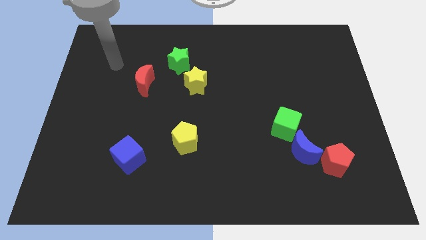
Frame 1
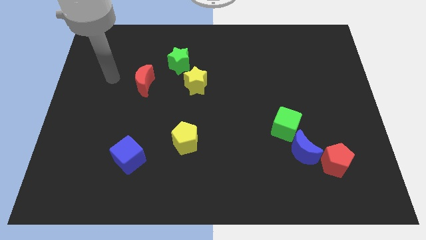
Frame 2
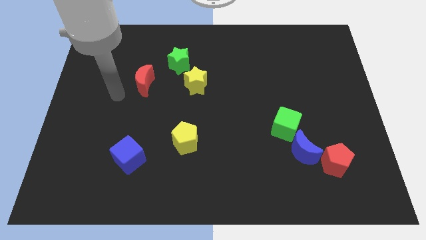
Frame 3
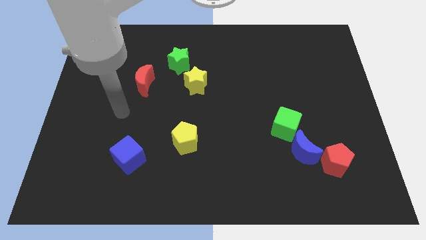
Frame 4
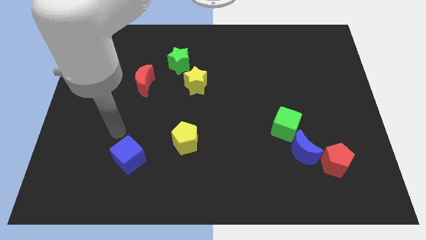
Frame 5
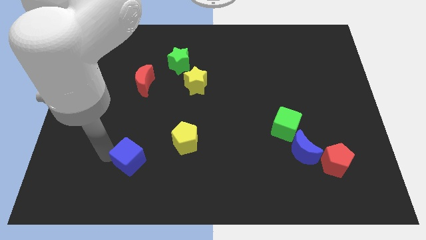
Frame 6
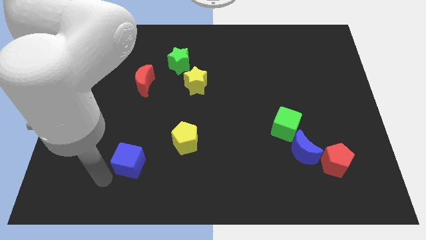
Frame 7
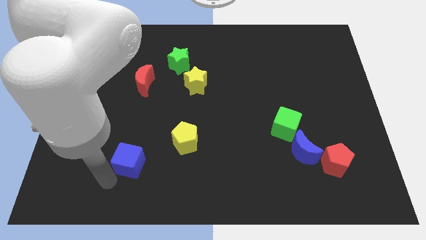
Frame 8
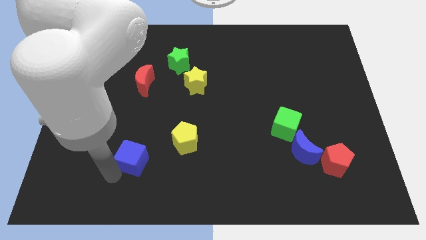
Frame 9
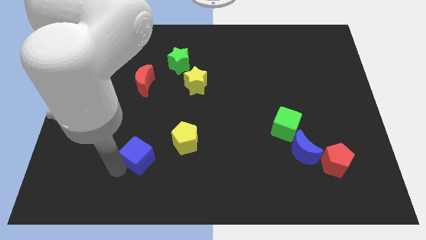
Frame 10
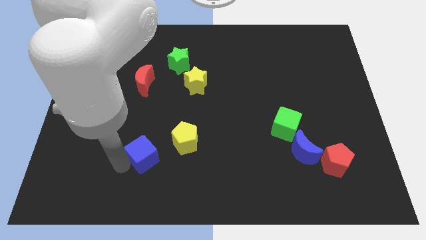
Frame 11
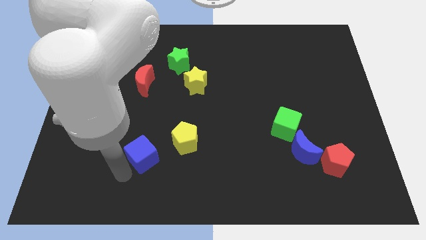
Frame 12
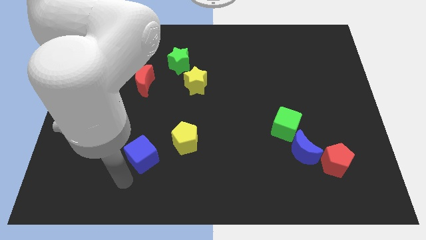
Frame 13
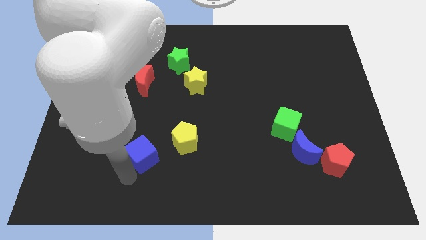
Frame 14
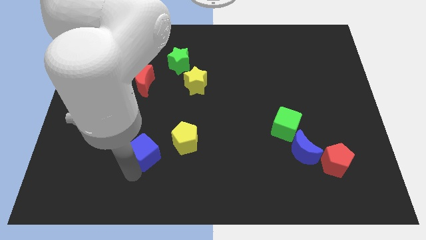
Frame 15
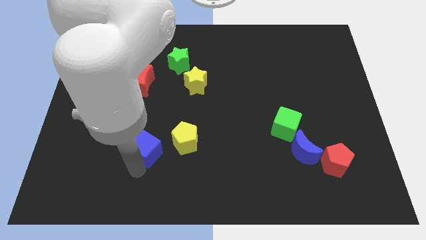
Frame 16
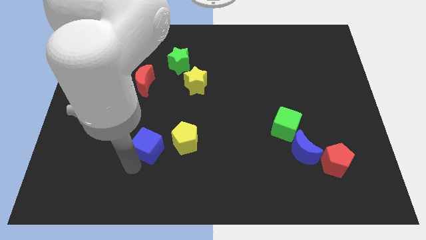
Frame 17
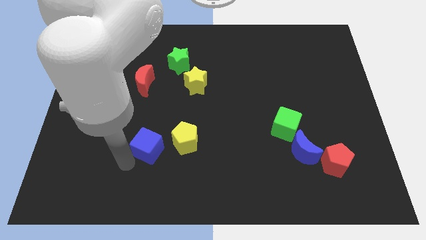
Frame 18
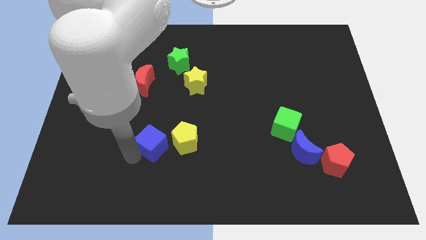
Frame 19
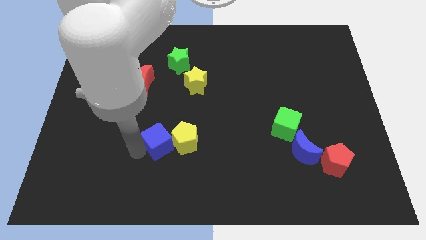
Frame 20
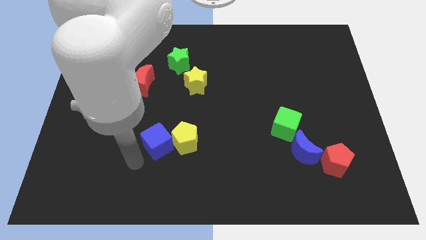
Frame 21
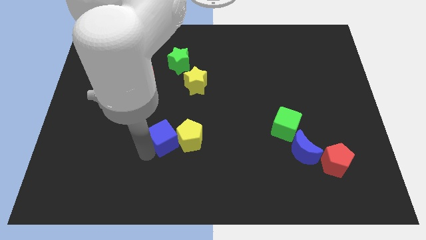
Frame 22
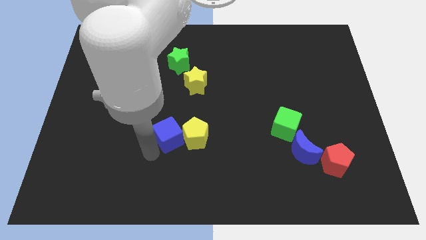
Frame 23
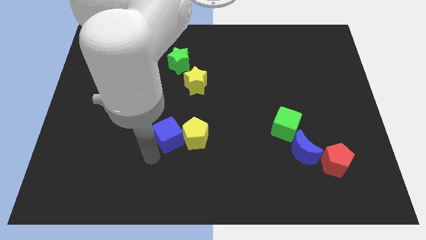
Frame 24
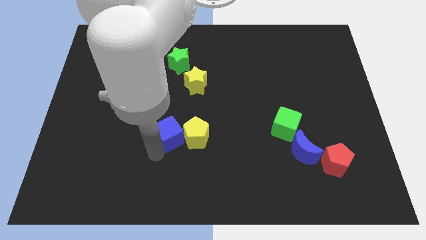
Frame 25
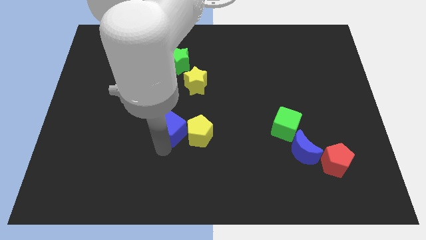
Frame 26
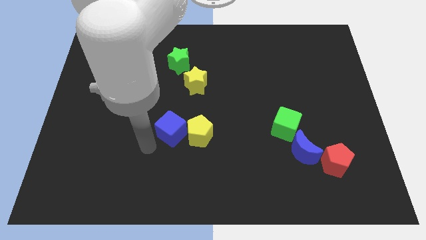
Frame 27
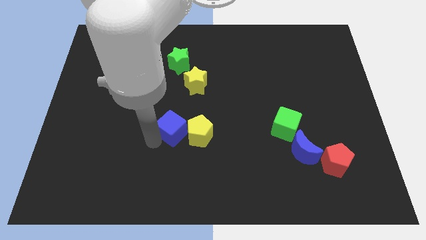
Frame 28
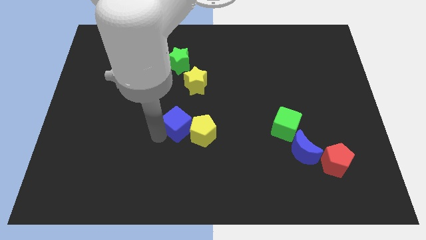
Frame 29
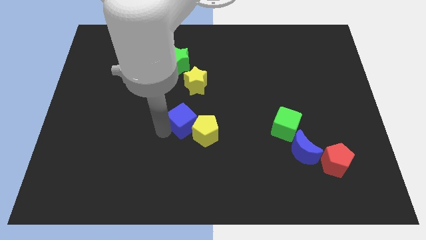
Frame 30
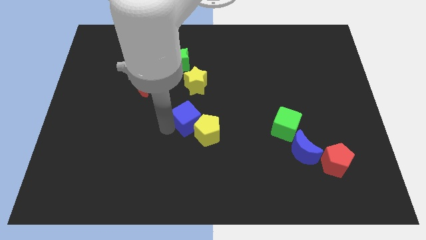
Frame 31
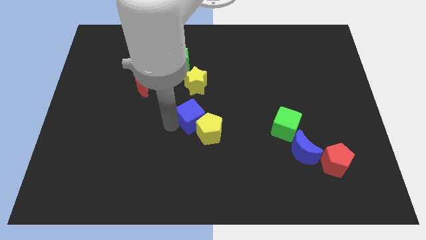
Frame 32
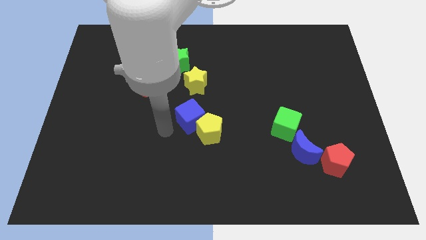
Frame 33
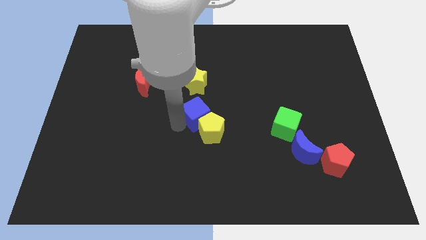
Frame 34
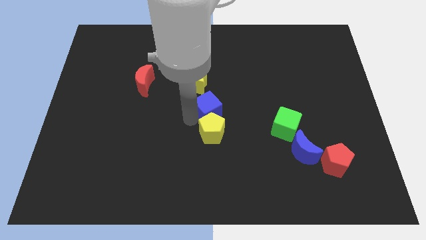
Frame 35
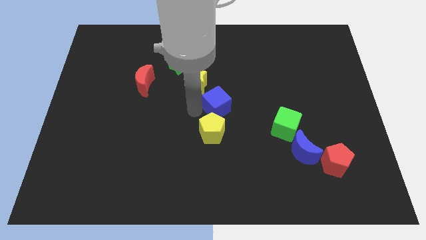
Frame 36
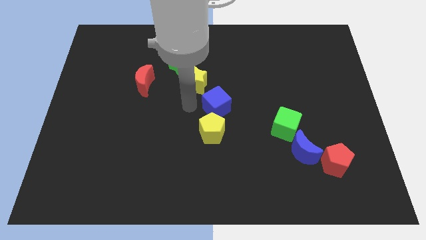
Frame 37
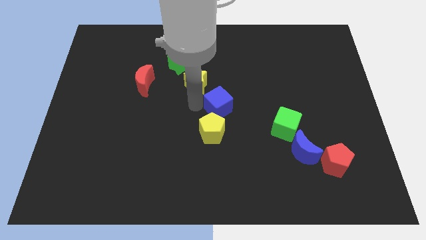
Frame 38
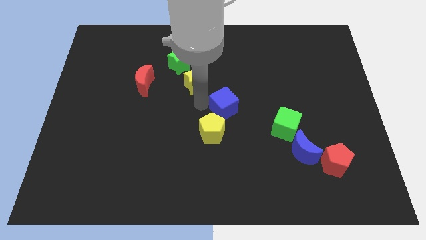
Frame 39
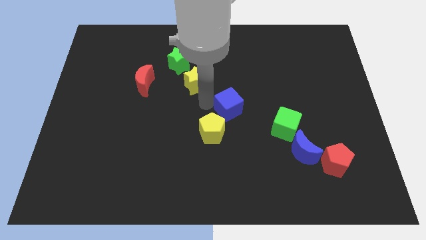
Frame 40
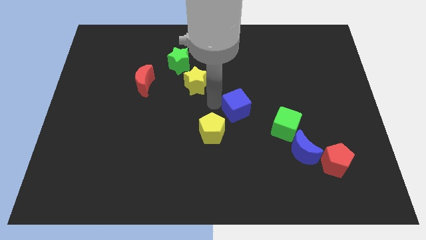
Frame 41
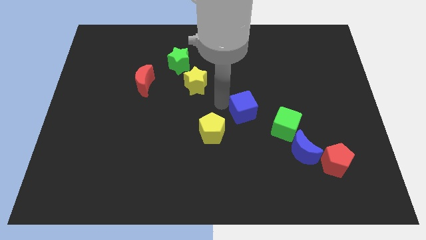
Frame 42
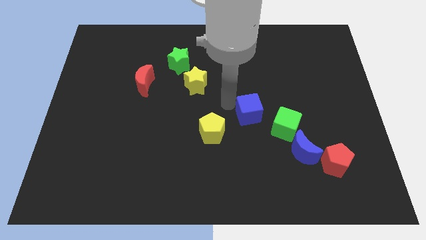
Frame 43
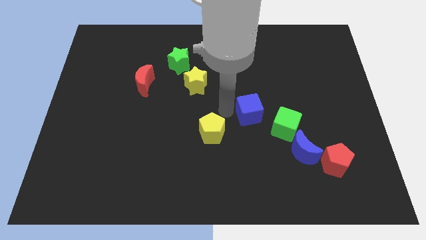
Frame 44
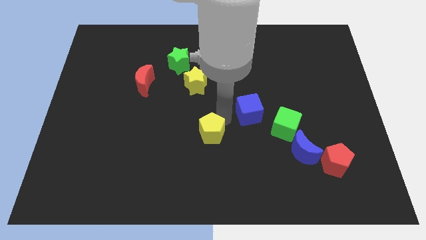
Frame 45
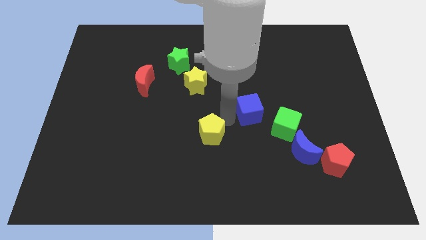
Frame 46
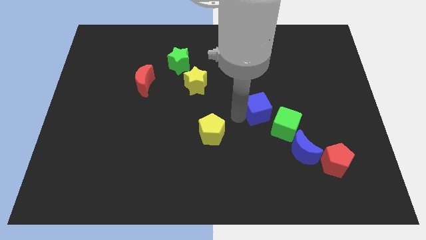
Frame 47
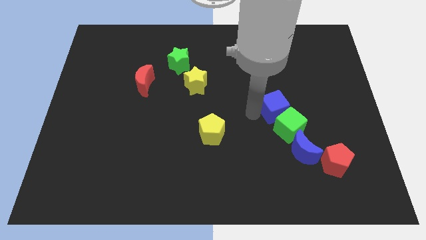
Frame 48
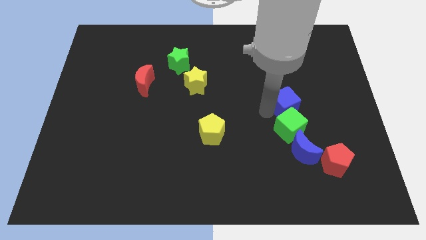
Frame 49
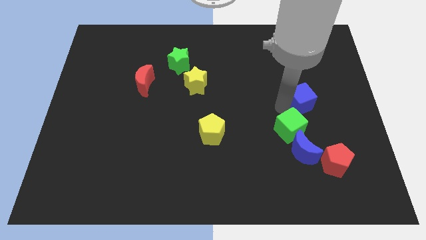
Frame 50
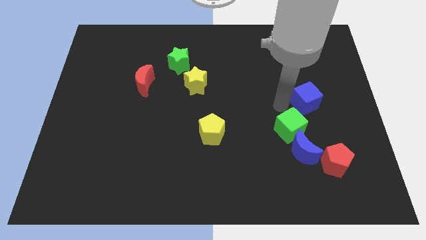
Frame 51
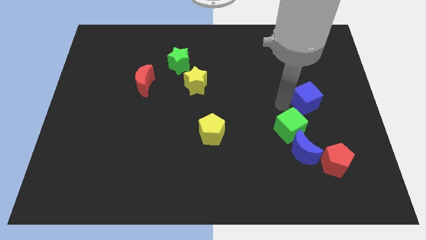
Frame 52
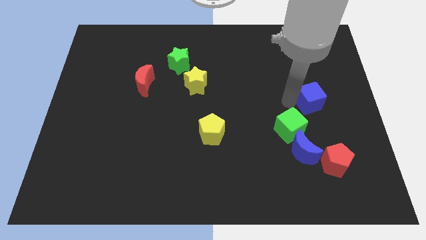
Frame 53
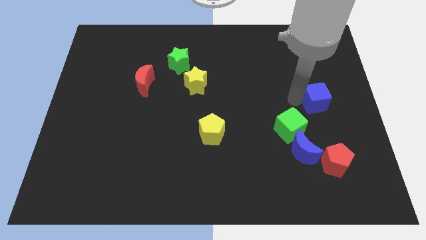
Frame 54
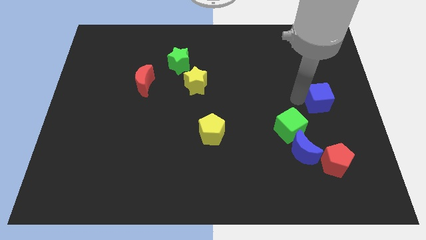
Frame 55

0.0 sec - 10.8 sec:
move the blue cube to the right side

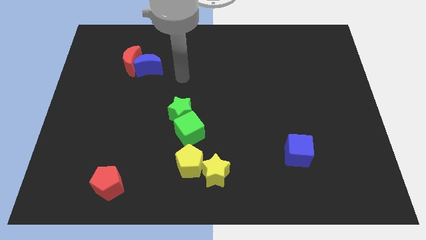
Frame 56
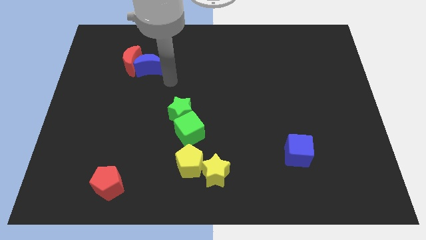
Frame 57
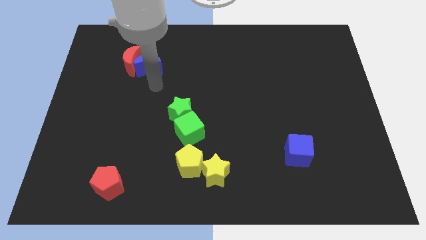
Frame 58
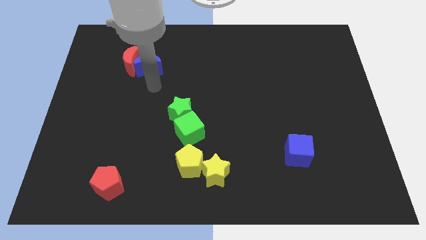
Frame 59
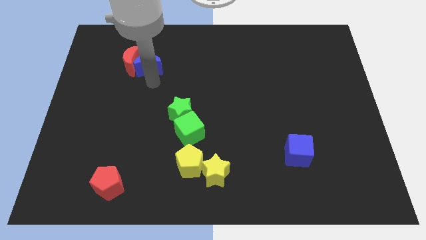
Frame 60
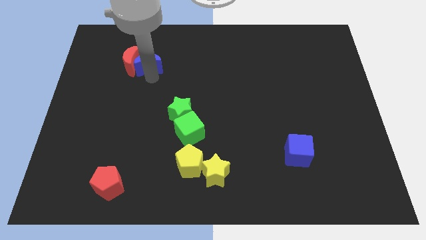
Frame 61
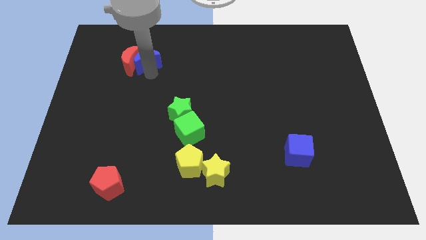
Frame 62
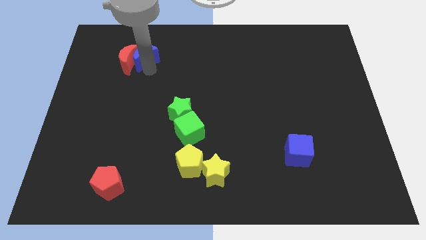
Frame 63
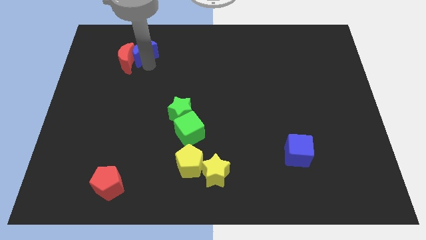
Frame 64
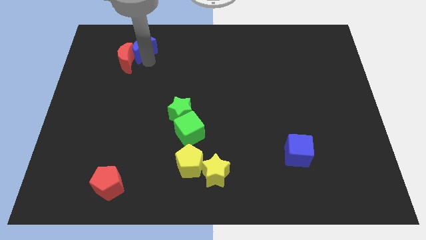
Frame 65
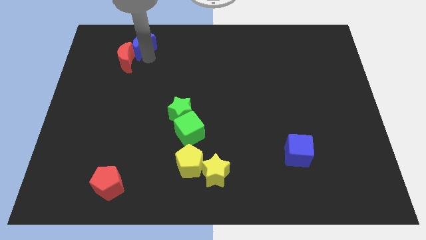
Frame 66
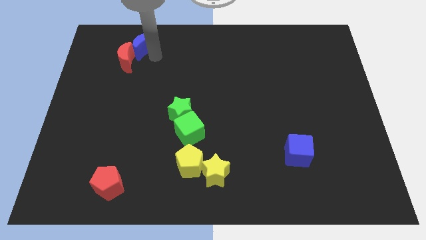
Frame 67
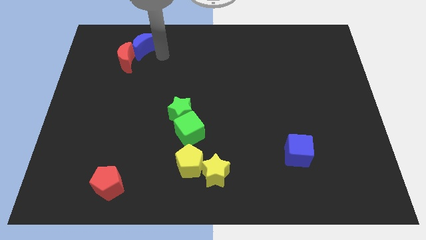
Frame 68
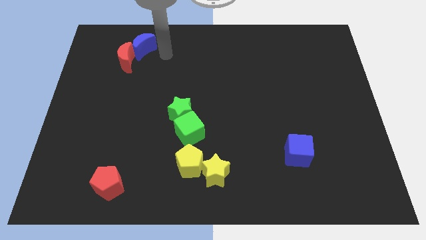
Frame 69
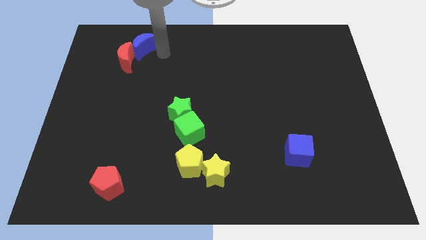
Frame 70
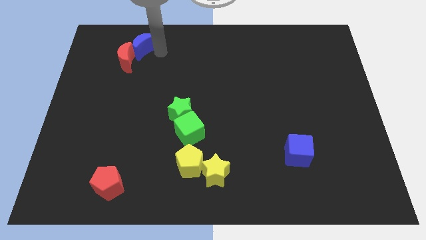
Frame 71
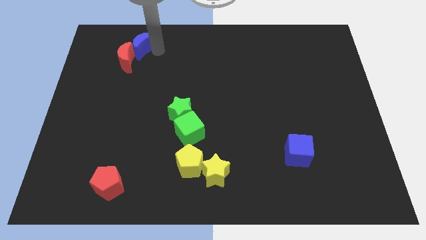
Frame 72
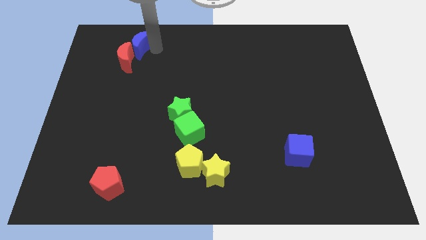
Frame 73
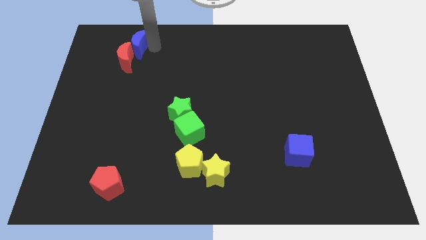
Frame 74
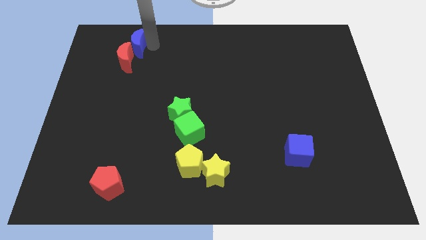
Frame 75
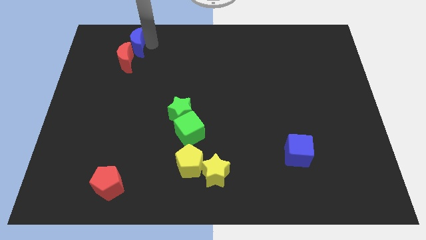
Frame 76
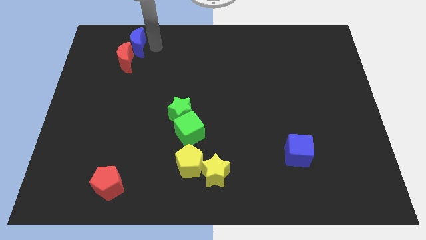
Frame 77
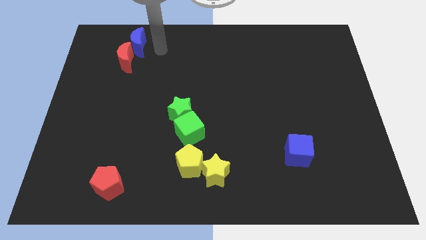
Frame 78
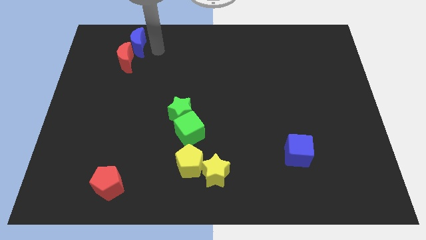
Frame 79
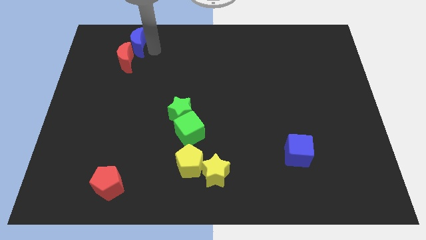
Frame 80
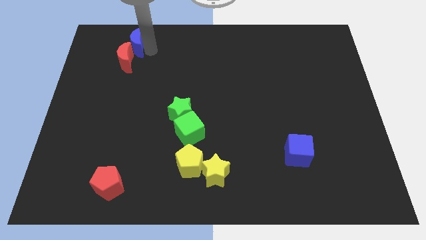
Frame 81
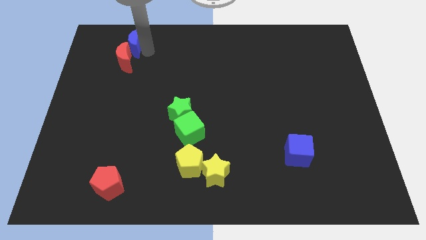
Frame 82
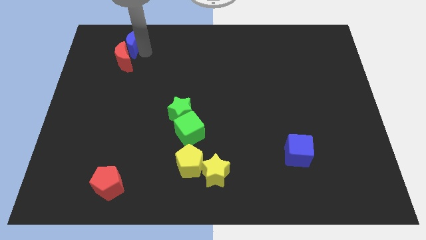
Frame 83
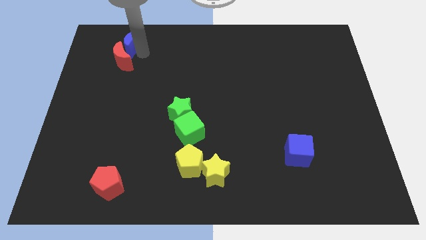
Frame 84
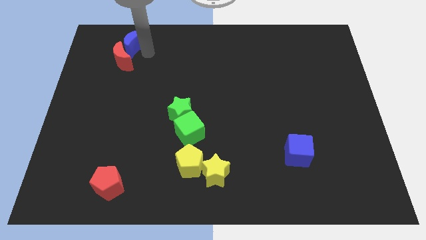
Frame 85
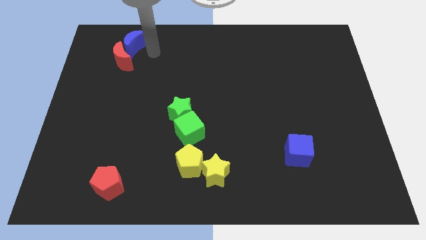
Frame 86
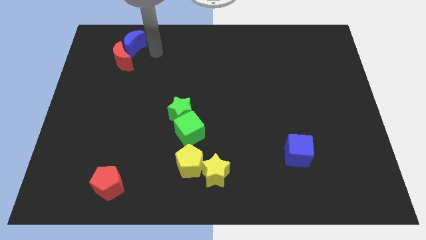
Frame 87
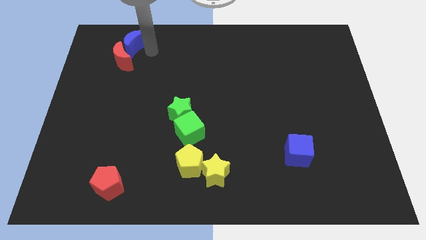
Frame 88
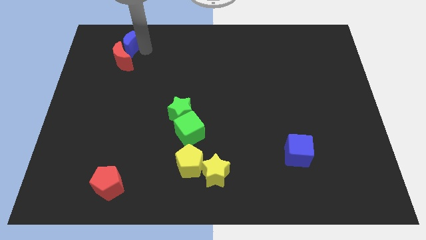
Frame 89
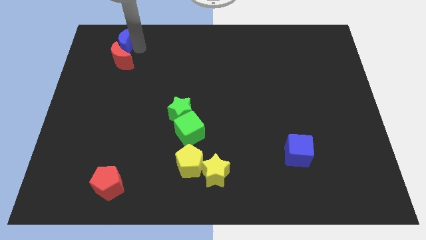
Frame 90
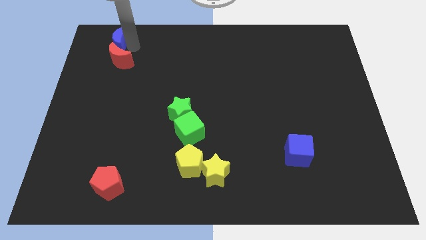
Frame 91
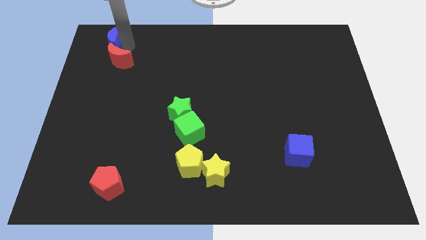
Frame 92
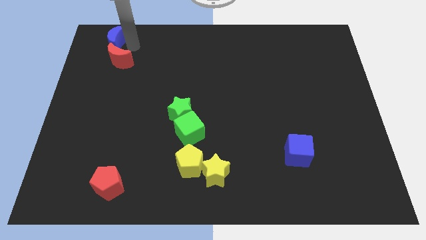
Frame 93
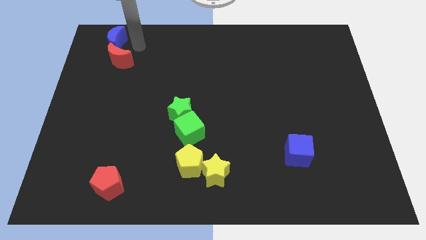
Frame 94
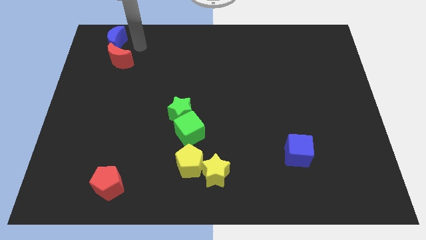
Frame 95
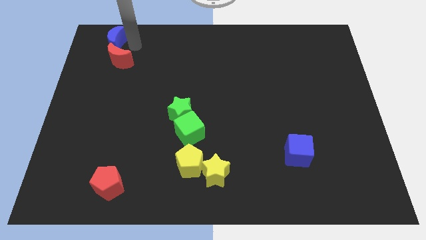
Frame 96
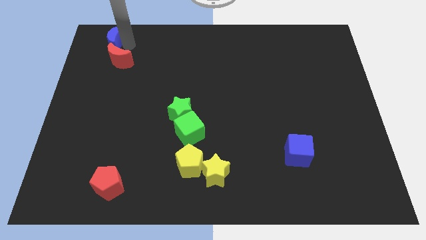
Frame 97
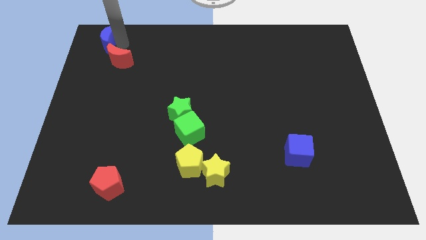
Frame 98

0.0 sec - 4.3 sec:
push the blue moon to the top left of the board
